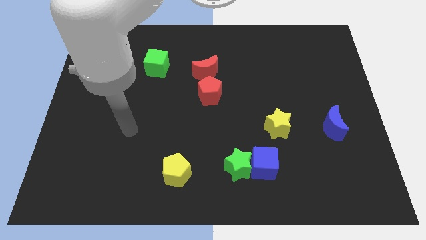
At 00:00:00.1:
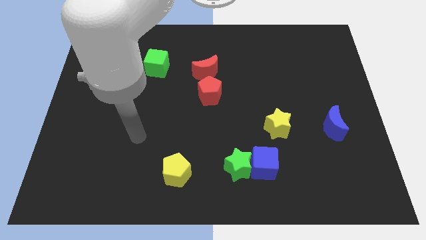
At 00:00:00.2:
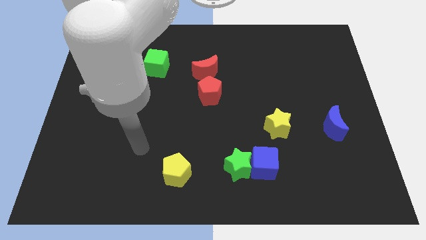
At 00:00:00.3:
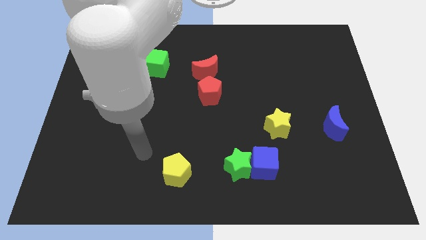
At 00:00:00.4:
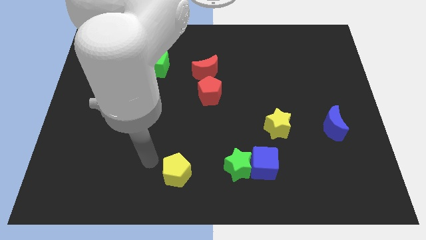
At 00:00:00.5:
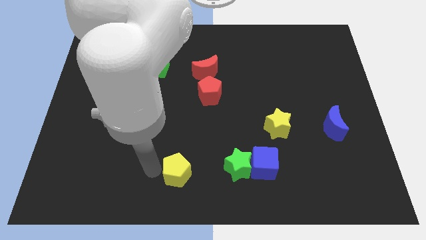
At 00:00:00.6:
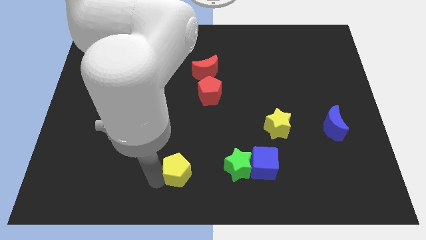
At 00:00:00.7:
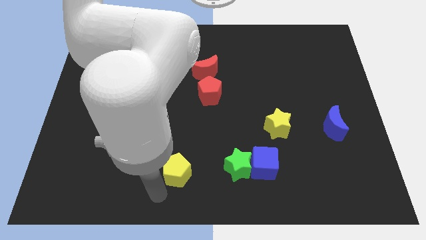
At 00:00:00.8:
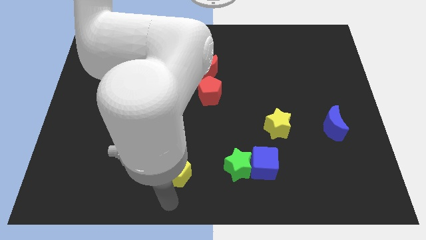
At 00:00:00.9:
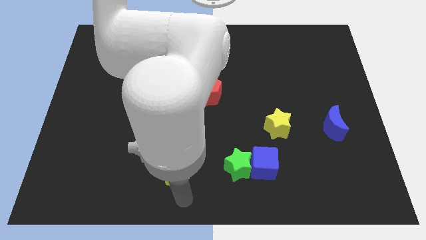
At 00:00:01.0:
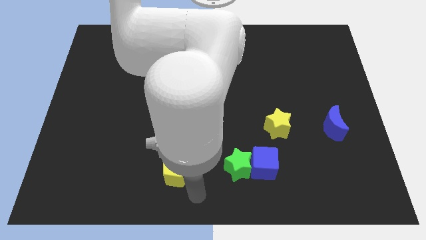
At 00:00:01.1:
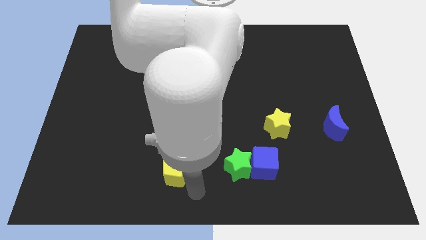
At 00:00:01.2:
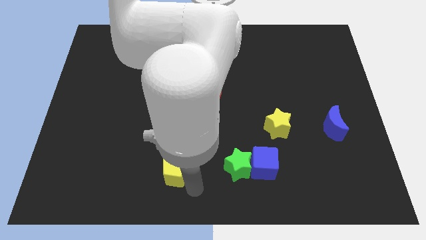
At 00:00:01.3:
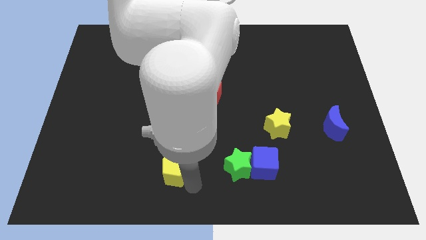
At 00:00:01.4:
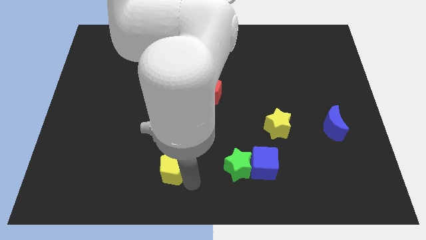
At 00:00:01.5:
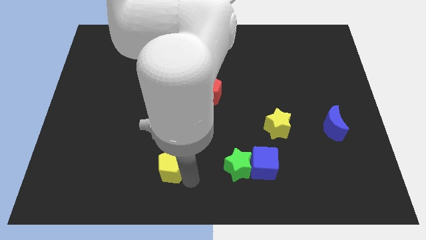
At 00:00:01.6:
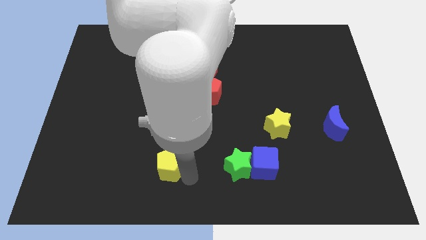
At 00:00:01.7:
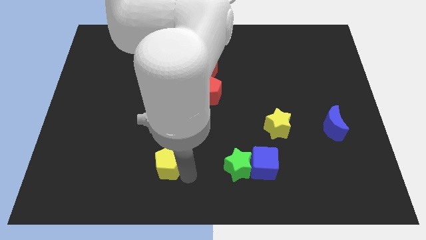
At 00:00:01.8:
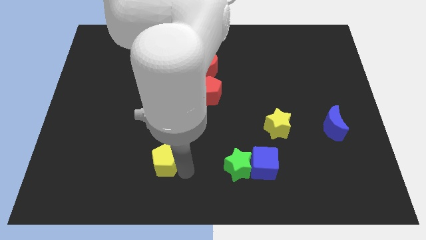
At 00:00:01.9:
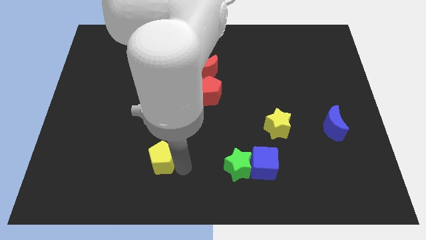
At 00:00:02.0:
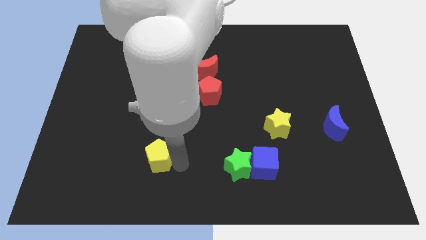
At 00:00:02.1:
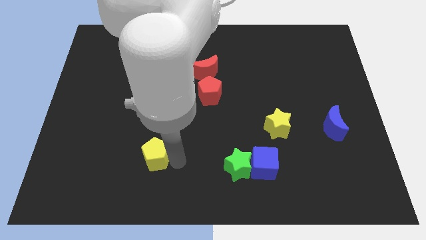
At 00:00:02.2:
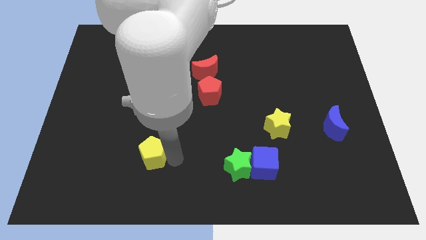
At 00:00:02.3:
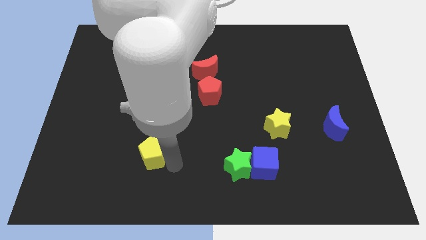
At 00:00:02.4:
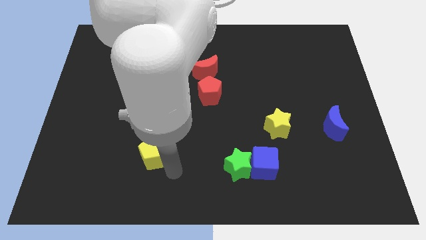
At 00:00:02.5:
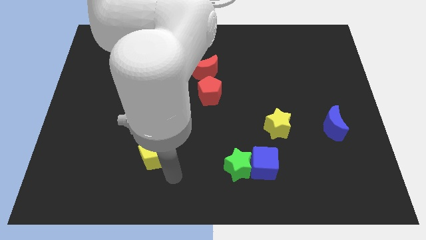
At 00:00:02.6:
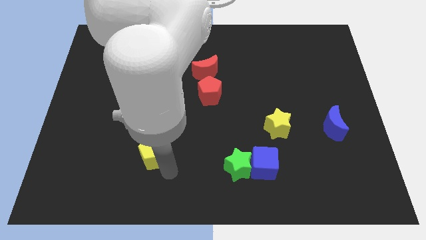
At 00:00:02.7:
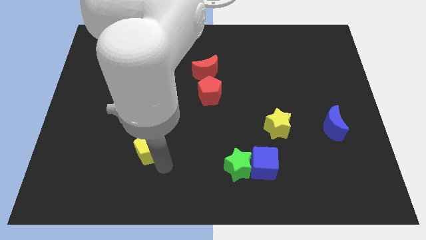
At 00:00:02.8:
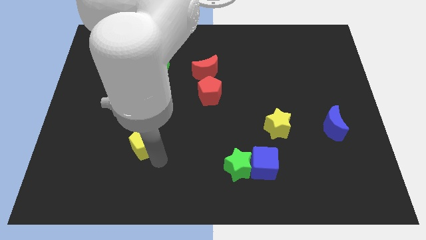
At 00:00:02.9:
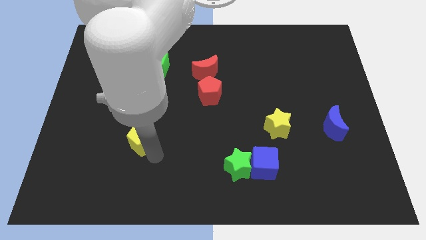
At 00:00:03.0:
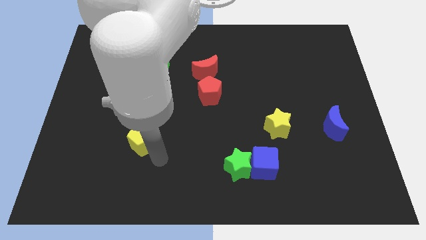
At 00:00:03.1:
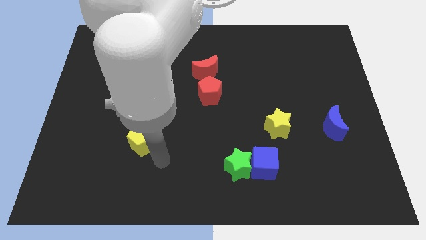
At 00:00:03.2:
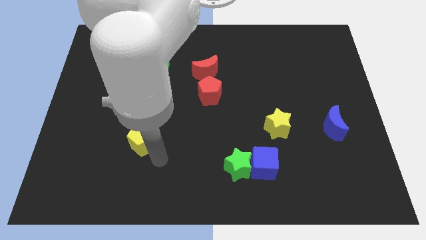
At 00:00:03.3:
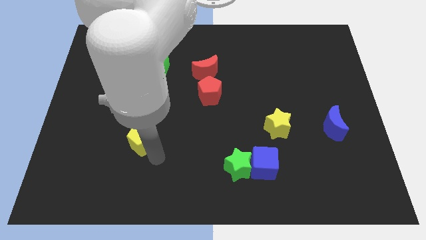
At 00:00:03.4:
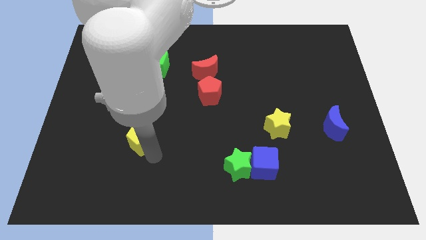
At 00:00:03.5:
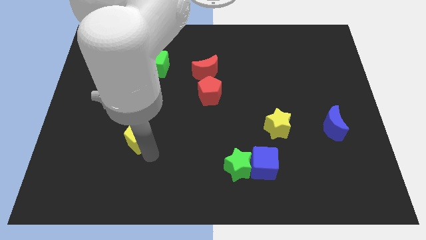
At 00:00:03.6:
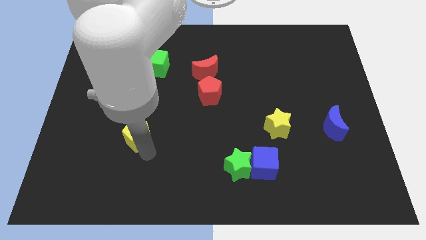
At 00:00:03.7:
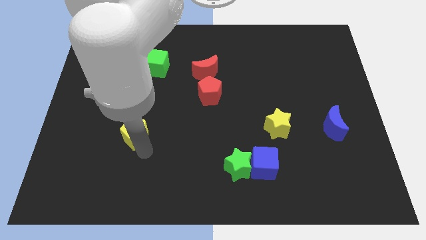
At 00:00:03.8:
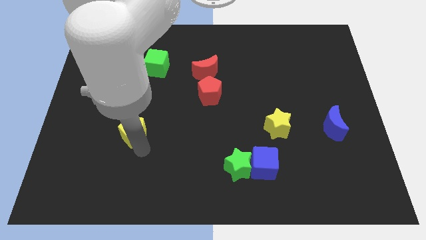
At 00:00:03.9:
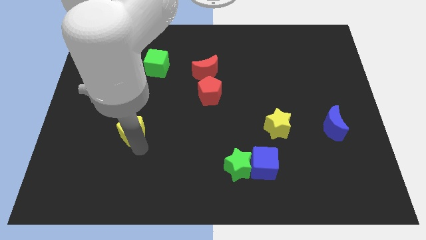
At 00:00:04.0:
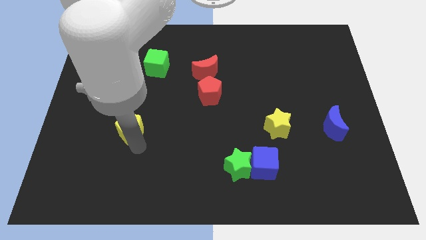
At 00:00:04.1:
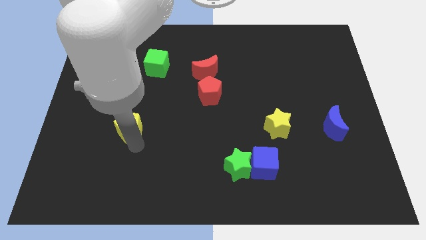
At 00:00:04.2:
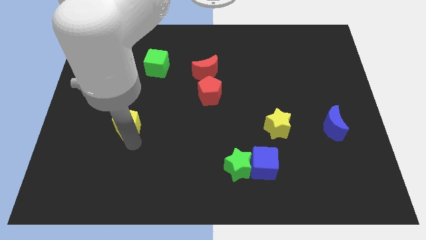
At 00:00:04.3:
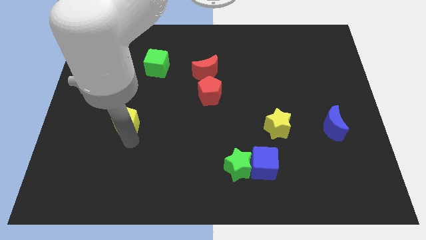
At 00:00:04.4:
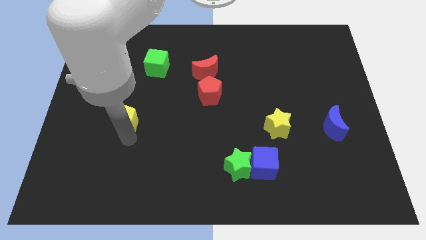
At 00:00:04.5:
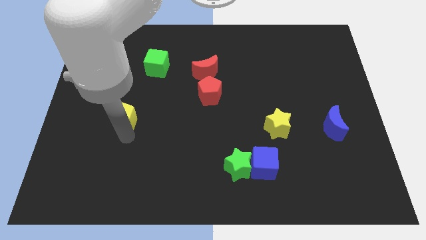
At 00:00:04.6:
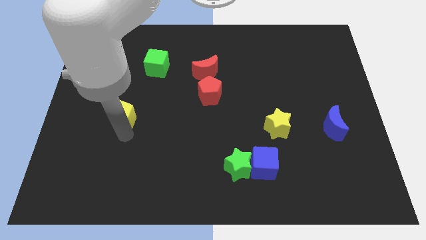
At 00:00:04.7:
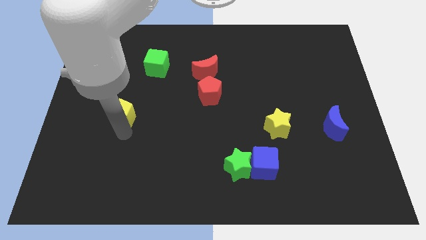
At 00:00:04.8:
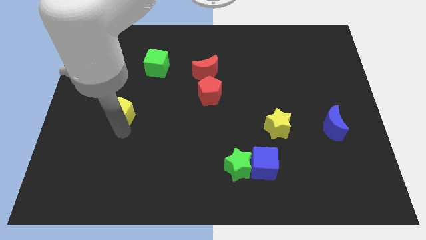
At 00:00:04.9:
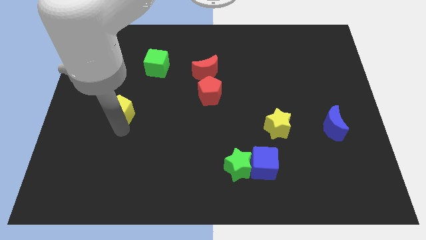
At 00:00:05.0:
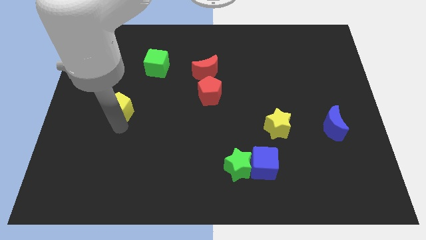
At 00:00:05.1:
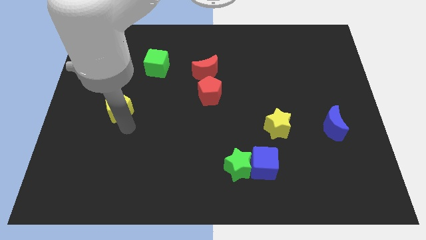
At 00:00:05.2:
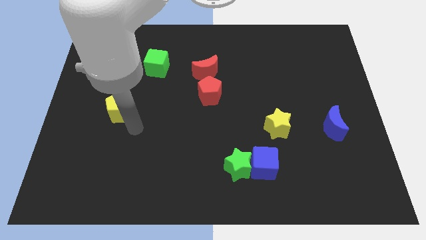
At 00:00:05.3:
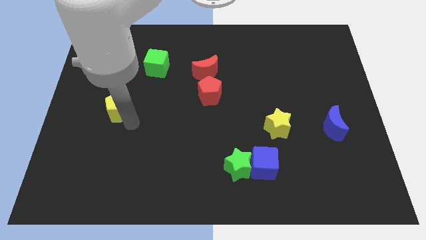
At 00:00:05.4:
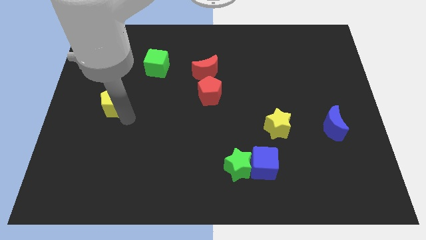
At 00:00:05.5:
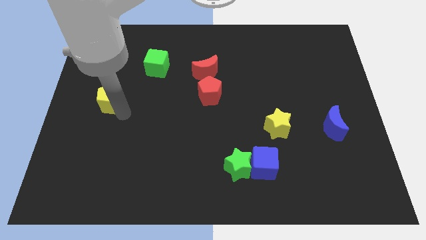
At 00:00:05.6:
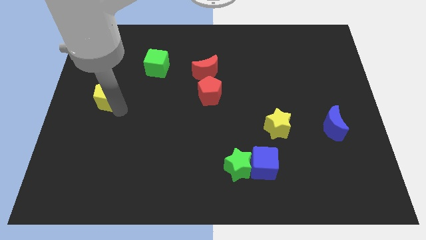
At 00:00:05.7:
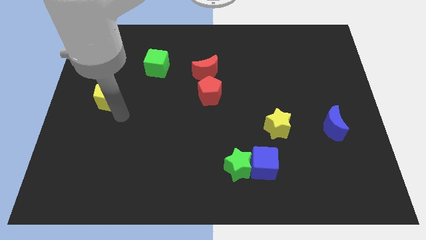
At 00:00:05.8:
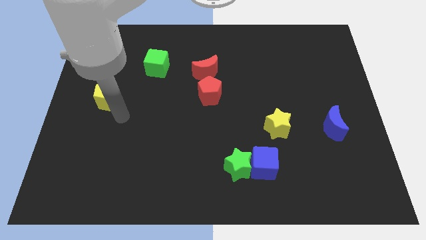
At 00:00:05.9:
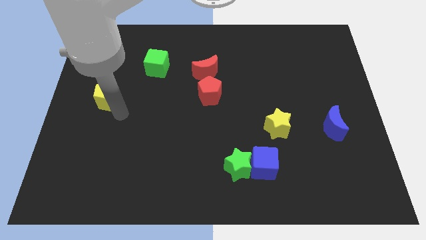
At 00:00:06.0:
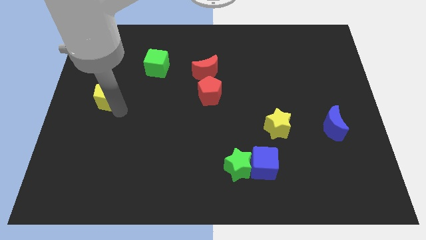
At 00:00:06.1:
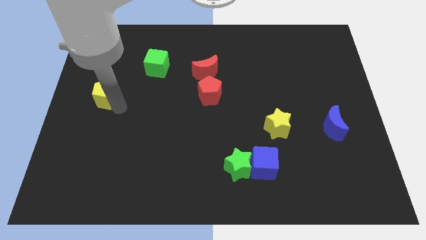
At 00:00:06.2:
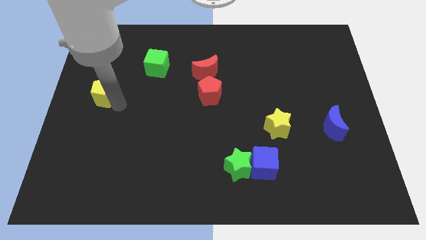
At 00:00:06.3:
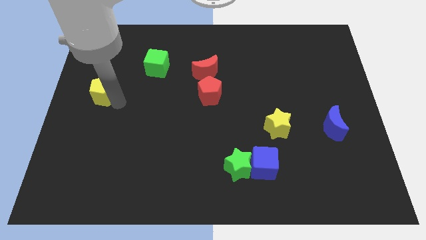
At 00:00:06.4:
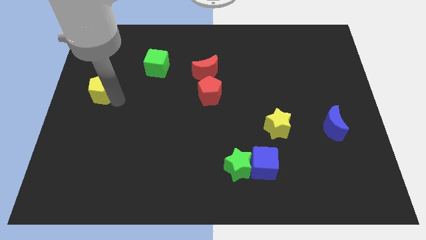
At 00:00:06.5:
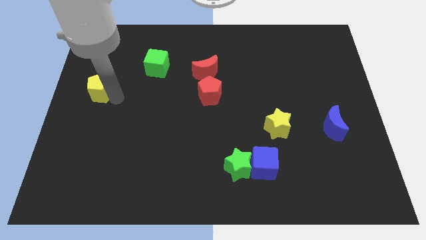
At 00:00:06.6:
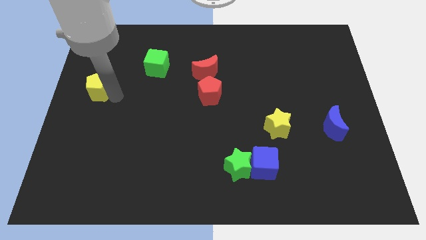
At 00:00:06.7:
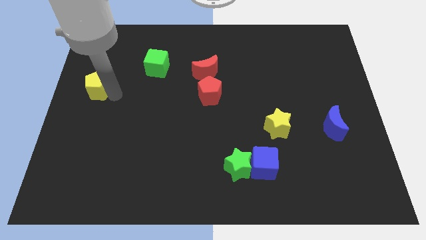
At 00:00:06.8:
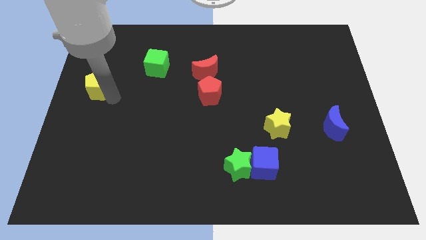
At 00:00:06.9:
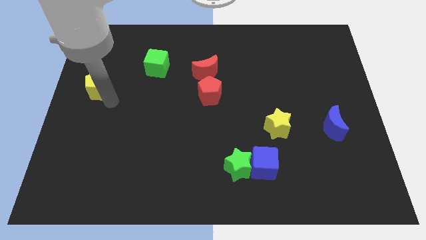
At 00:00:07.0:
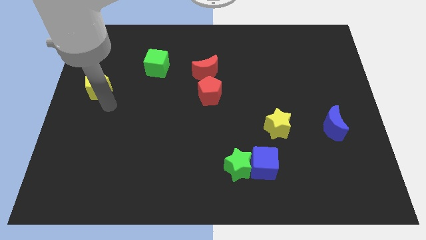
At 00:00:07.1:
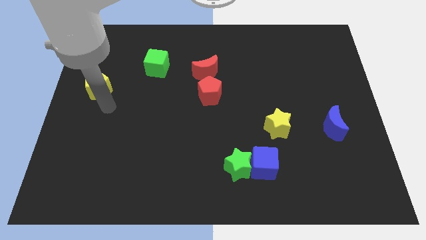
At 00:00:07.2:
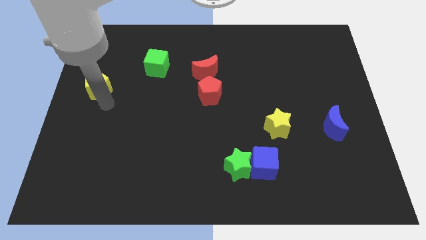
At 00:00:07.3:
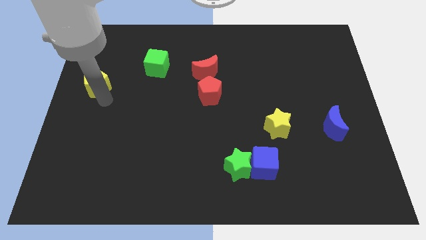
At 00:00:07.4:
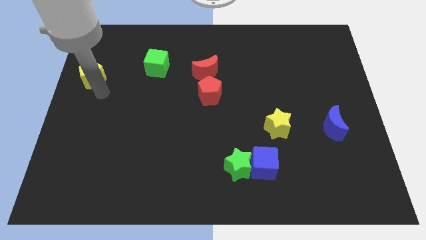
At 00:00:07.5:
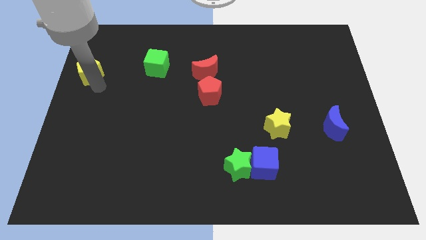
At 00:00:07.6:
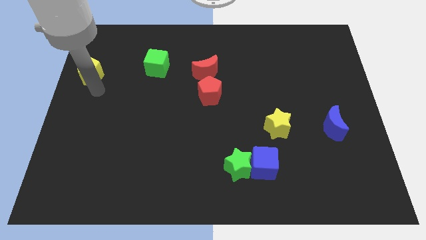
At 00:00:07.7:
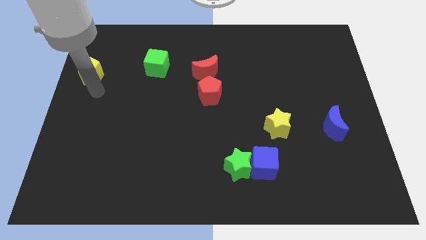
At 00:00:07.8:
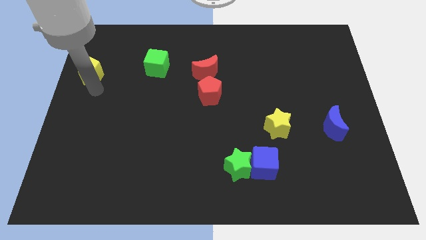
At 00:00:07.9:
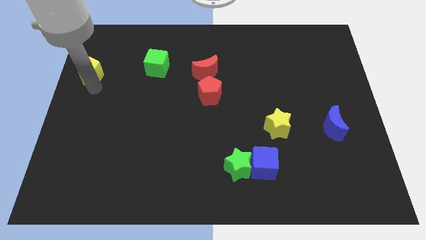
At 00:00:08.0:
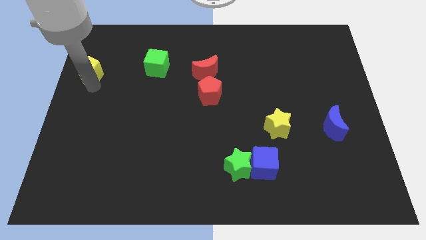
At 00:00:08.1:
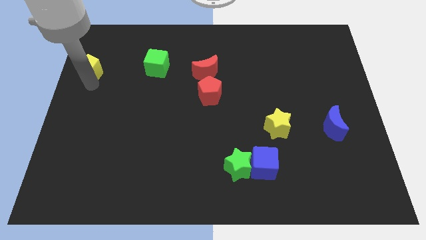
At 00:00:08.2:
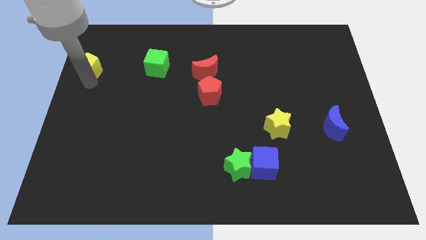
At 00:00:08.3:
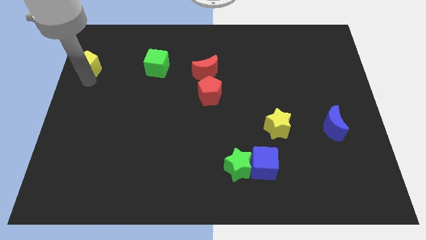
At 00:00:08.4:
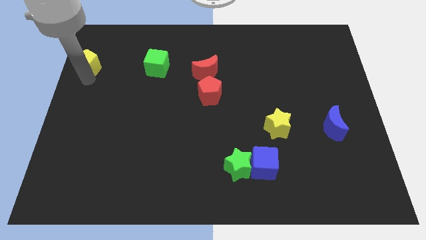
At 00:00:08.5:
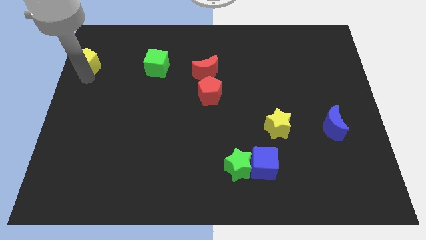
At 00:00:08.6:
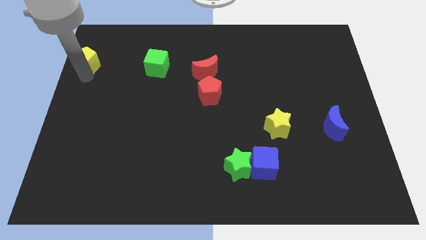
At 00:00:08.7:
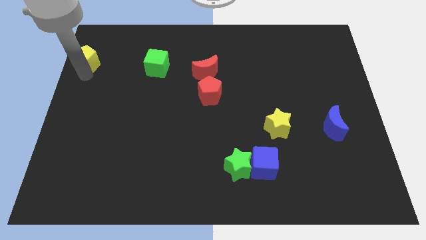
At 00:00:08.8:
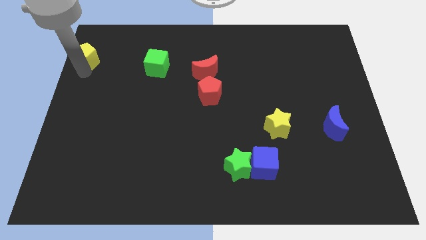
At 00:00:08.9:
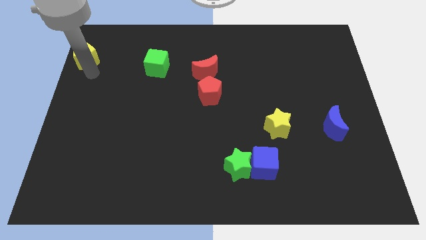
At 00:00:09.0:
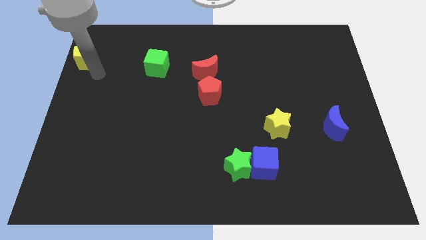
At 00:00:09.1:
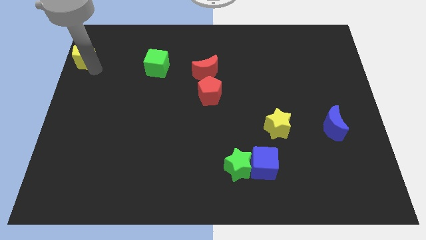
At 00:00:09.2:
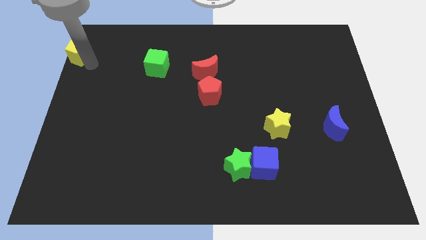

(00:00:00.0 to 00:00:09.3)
put the yellow pentagon to the top left corner
